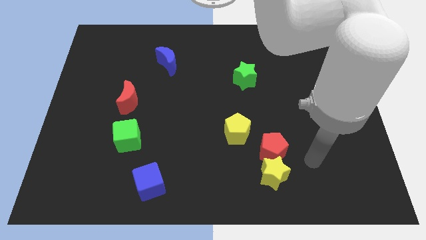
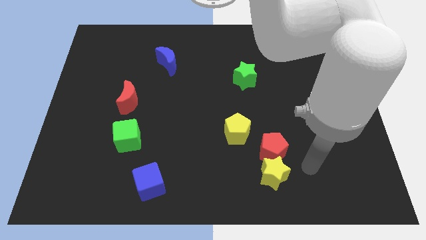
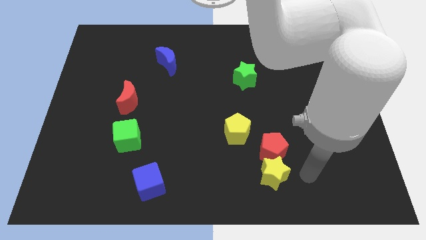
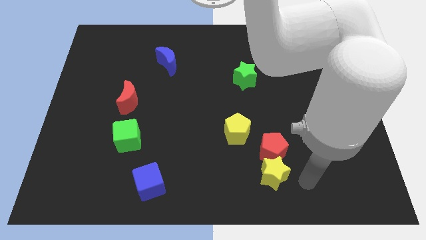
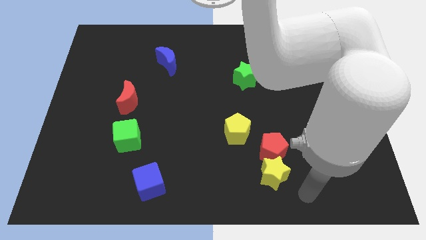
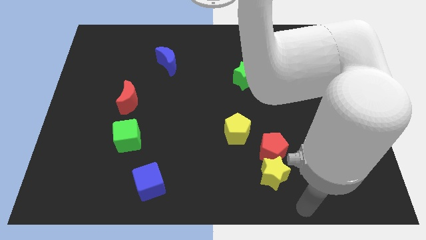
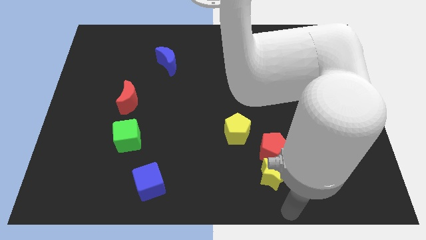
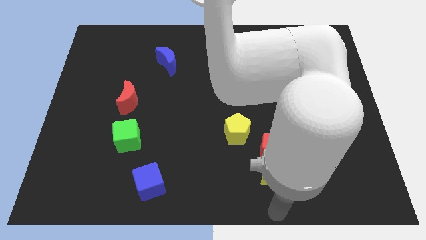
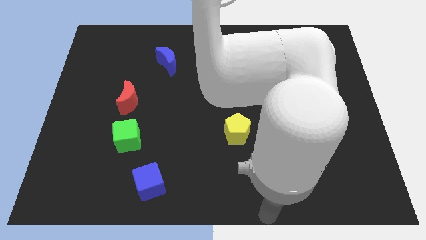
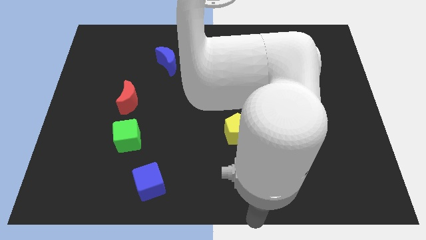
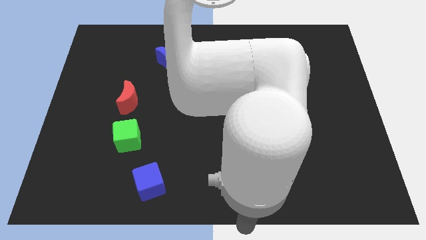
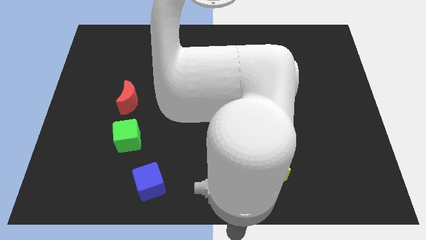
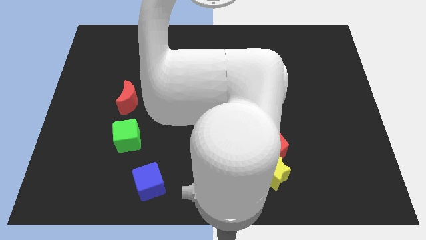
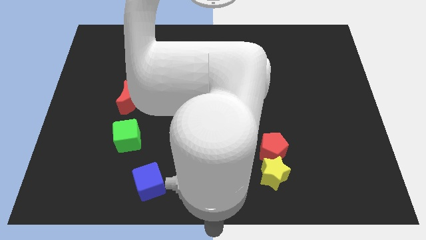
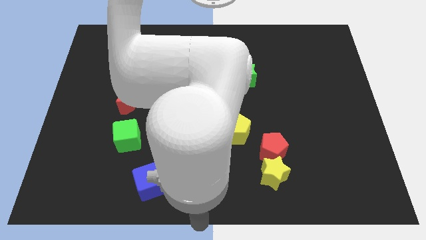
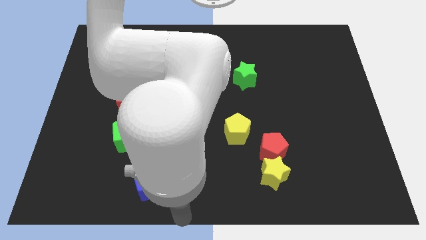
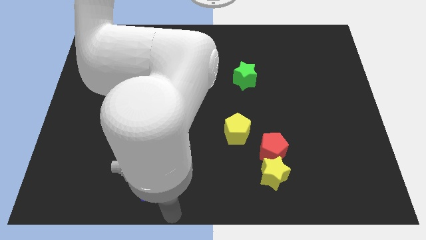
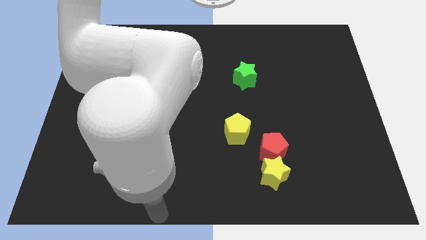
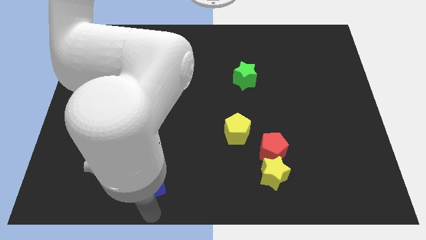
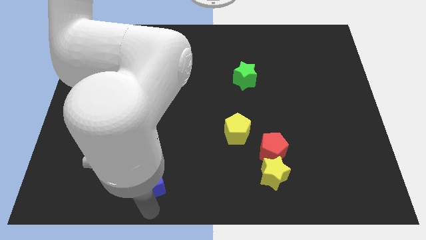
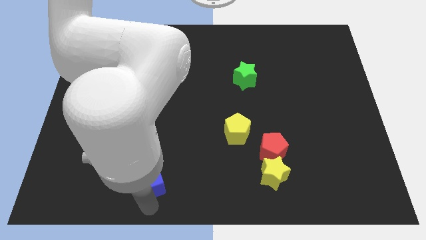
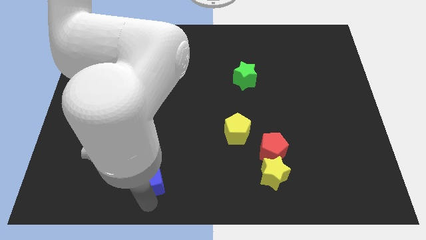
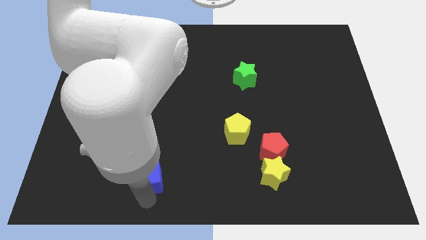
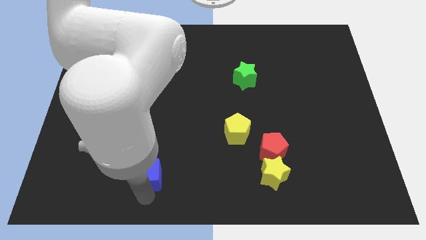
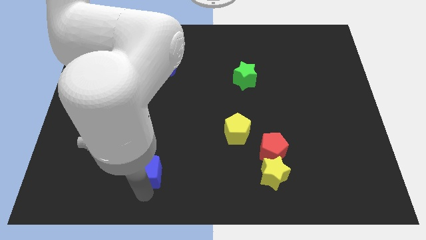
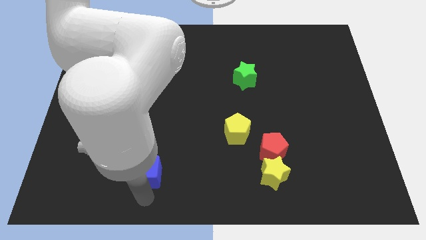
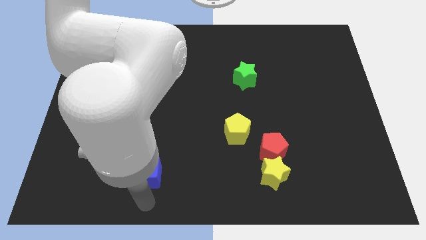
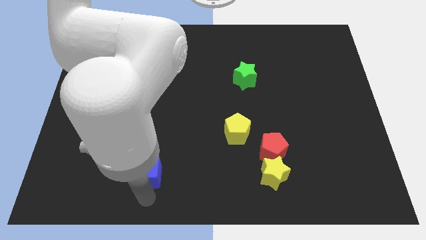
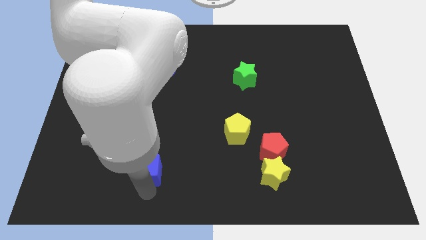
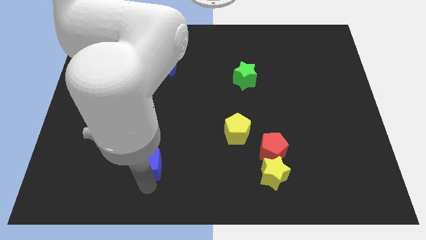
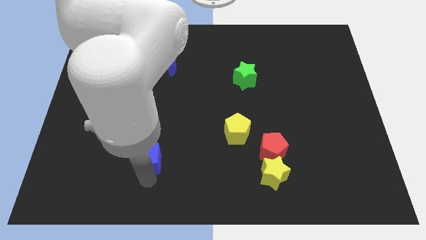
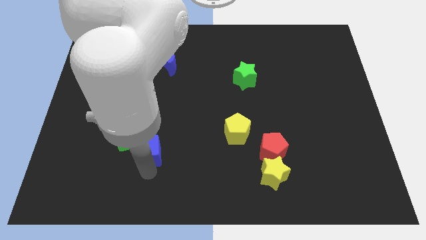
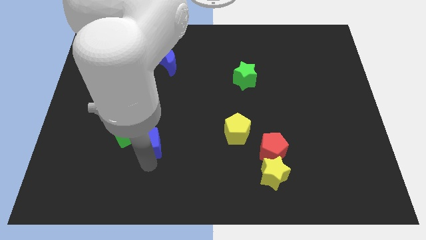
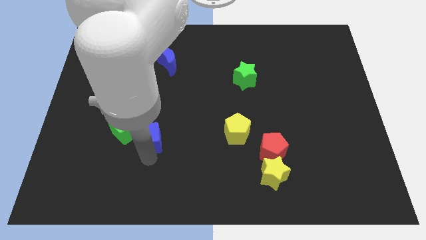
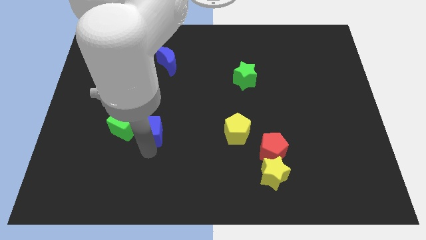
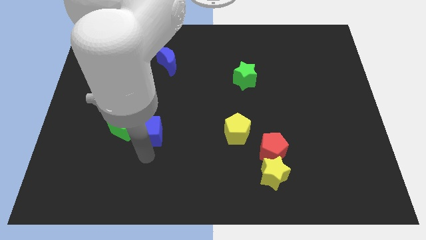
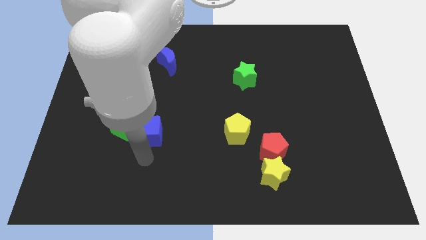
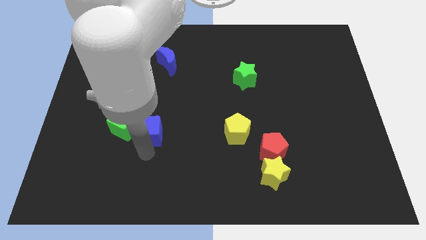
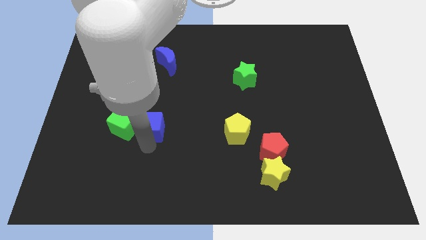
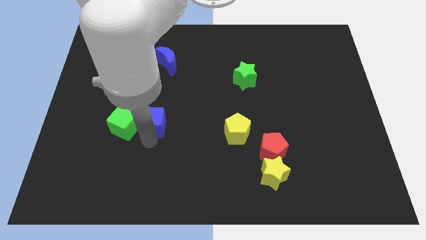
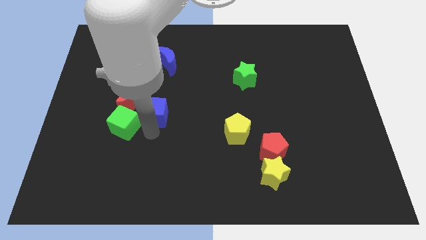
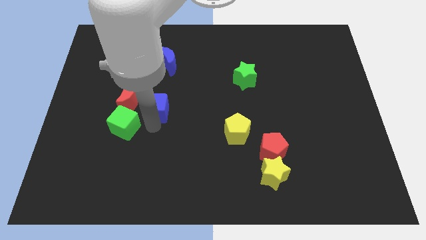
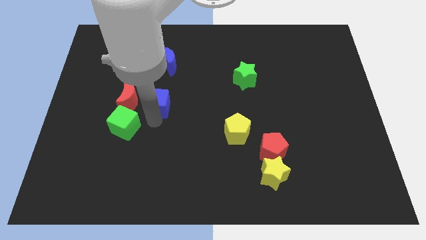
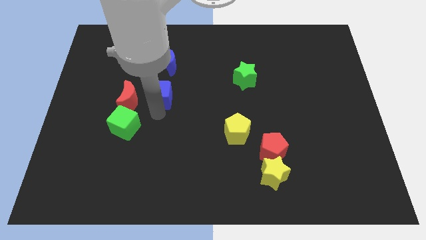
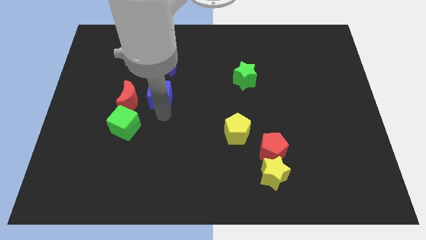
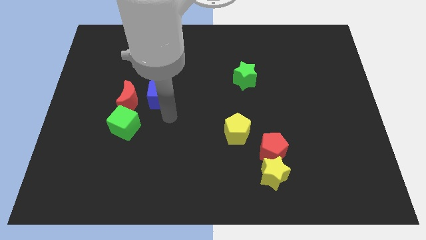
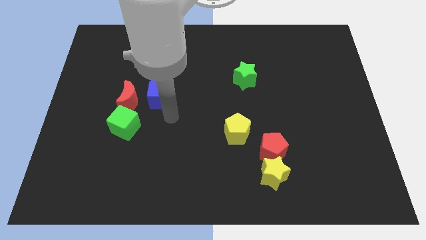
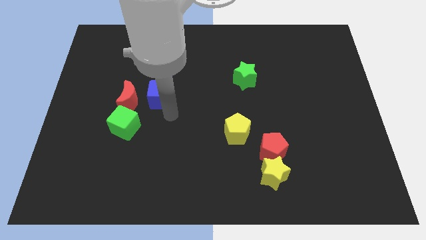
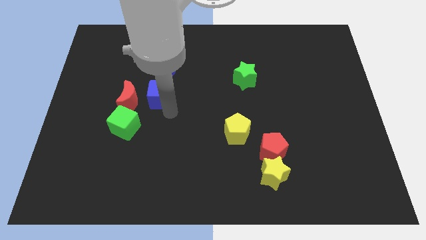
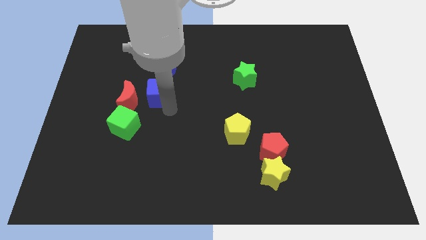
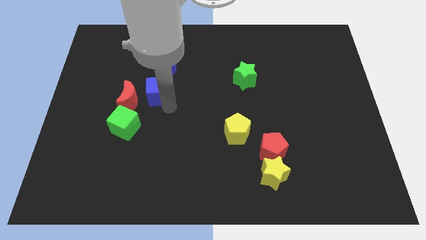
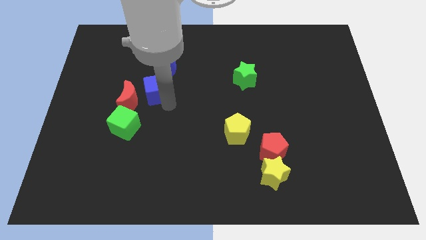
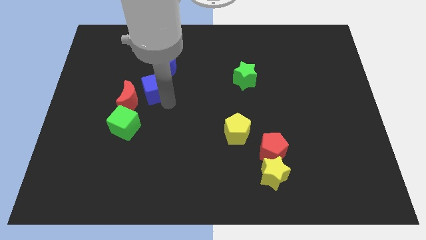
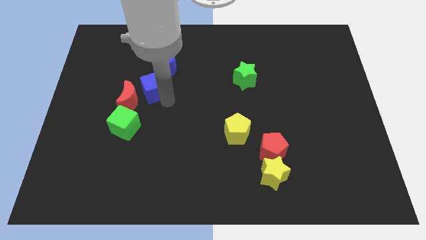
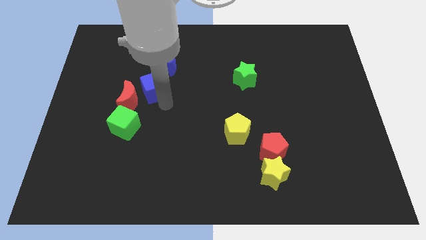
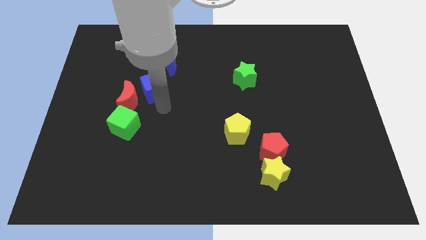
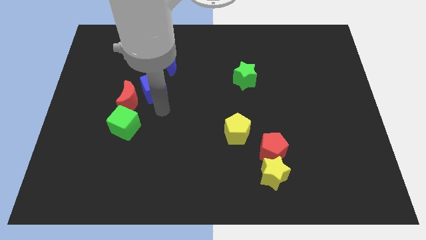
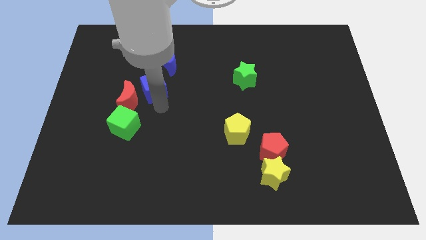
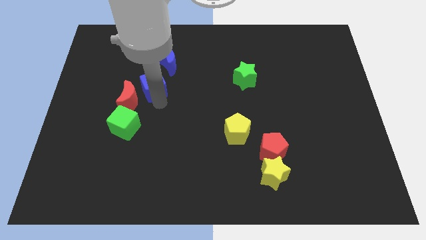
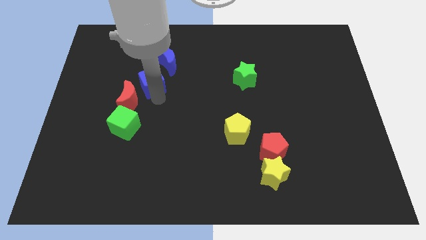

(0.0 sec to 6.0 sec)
push the blue cube to the top of the red moon

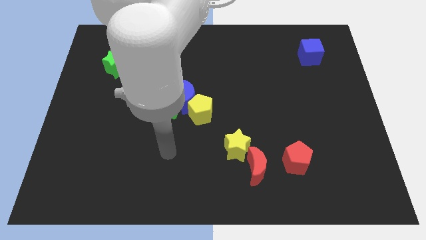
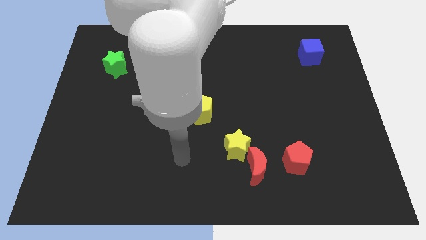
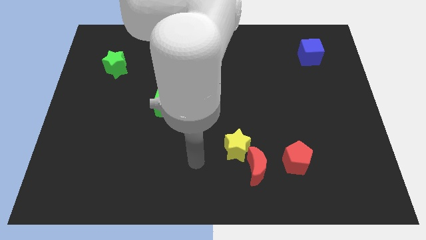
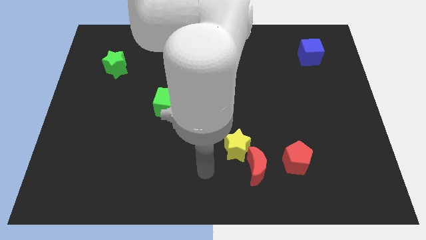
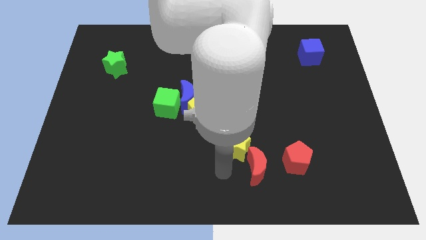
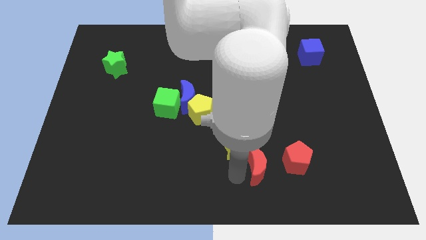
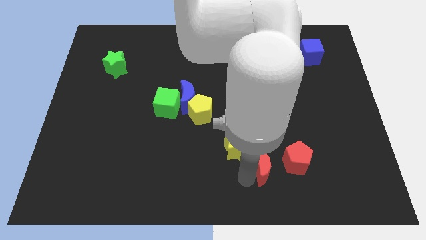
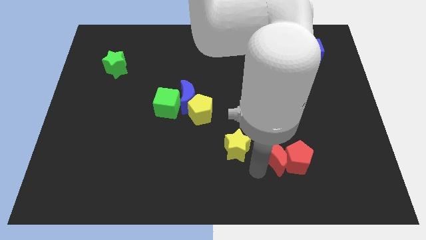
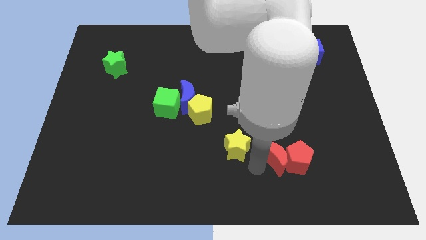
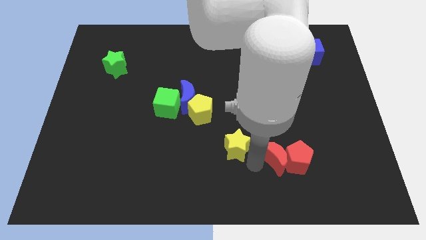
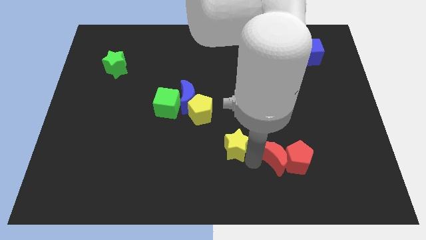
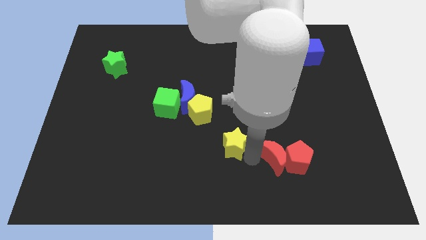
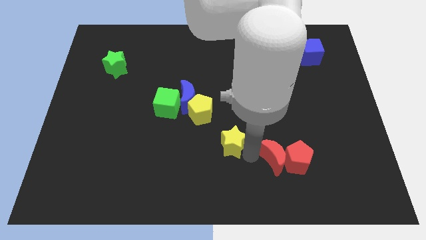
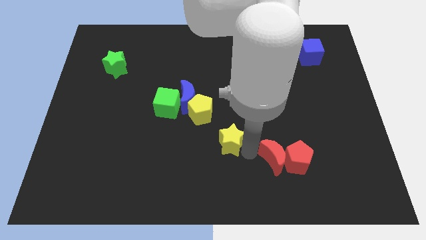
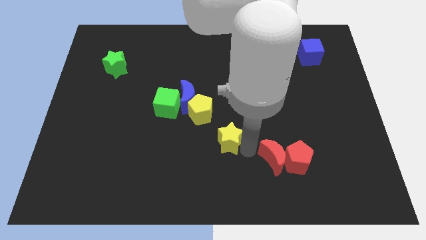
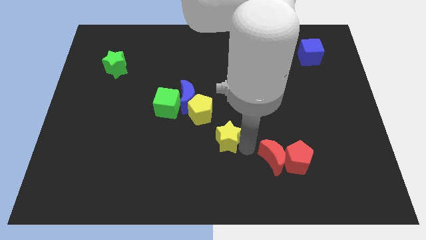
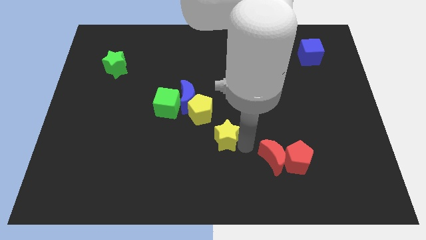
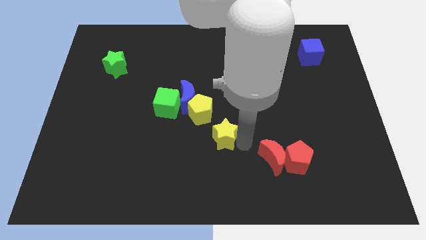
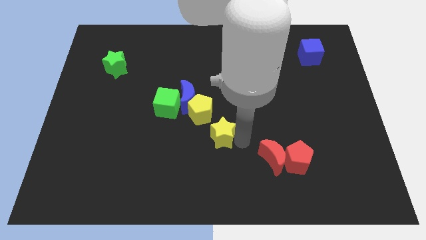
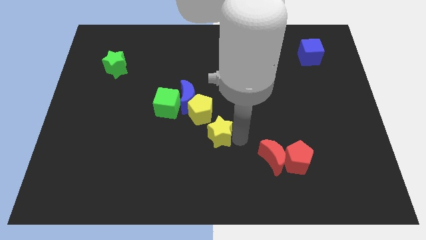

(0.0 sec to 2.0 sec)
move the yellow star to the bottom right of the blue moon
